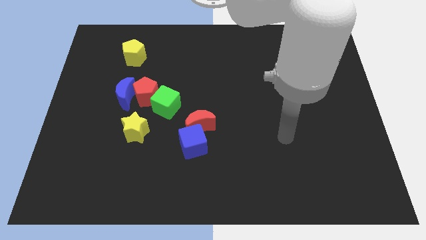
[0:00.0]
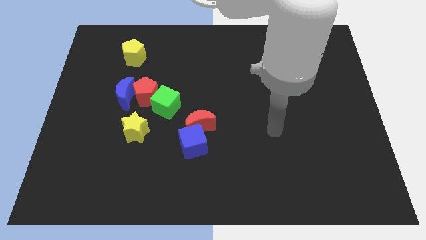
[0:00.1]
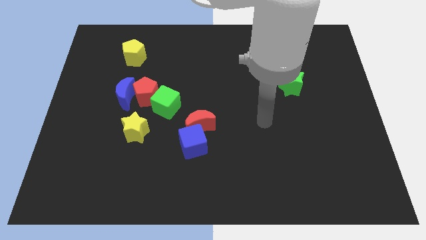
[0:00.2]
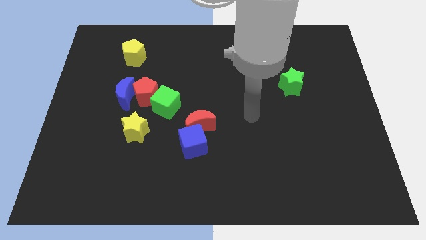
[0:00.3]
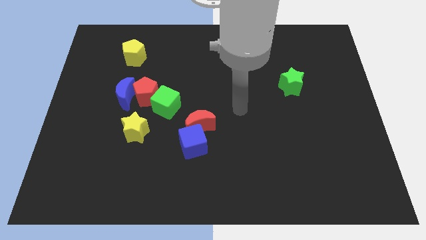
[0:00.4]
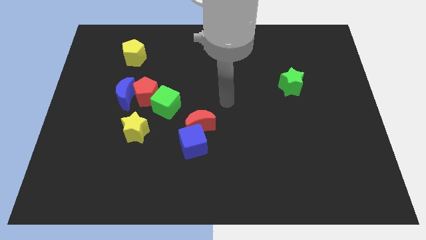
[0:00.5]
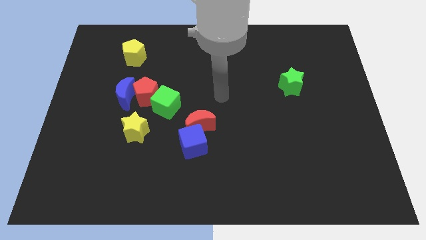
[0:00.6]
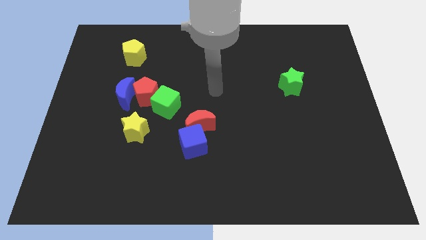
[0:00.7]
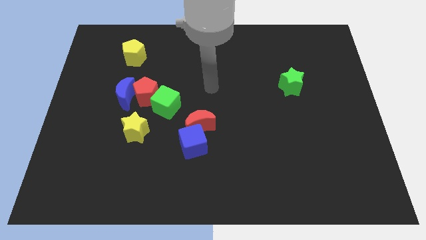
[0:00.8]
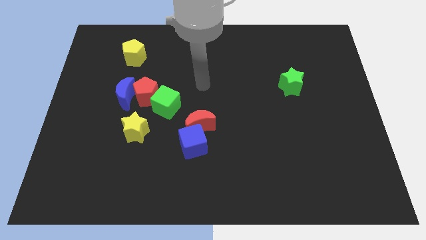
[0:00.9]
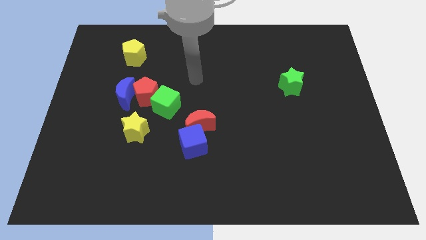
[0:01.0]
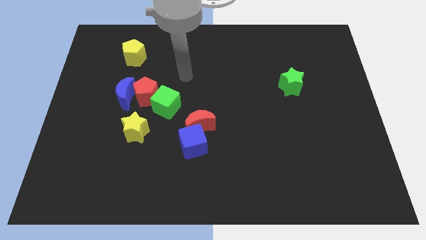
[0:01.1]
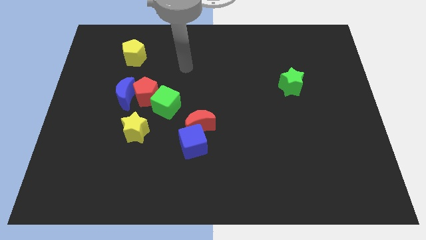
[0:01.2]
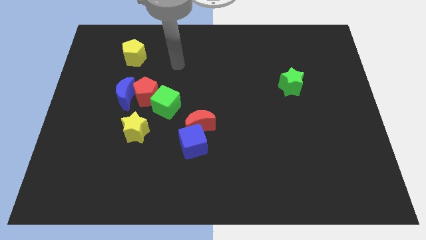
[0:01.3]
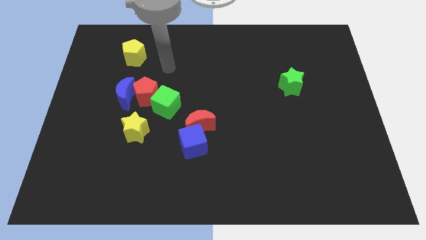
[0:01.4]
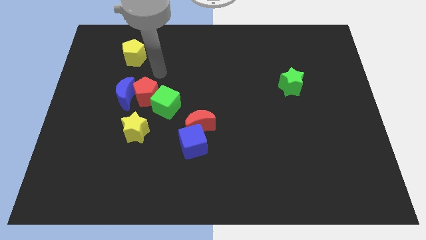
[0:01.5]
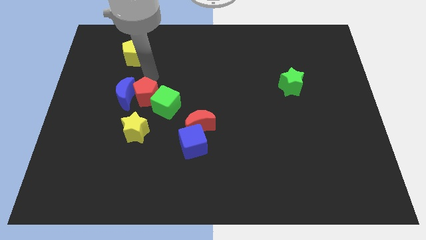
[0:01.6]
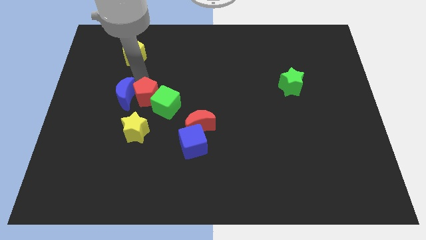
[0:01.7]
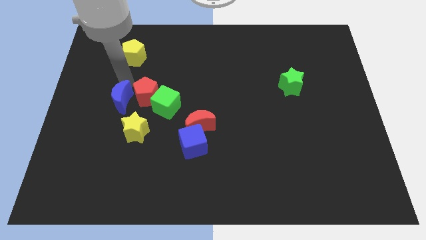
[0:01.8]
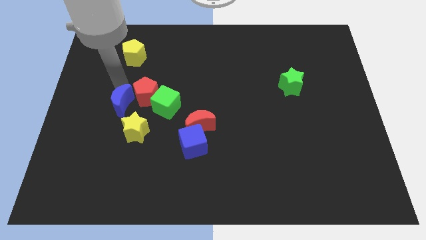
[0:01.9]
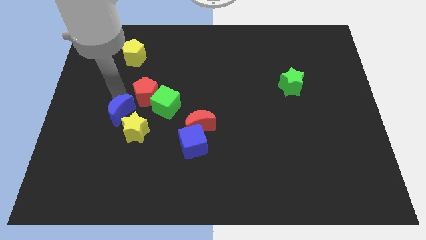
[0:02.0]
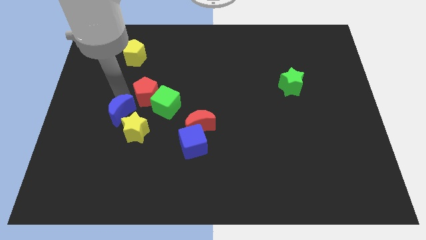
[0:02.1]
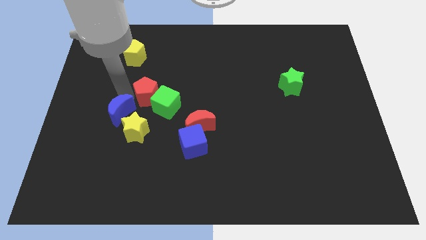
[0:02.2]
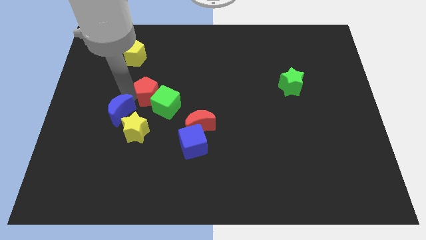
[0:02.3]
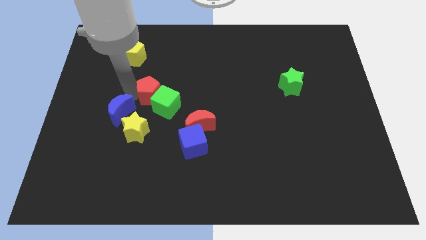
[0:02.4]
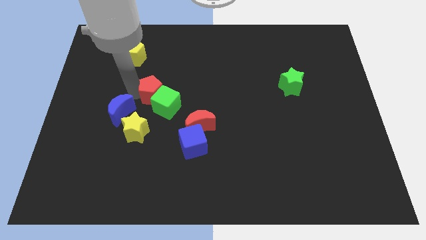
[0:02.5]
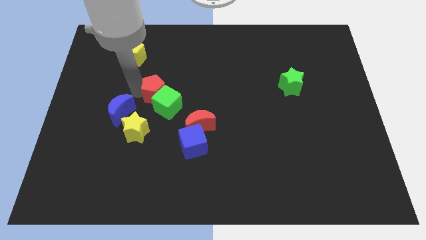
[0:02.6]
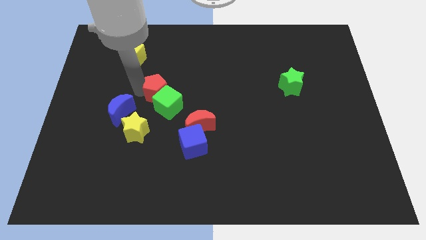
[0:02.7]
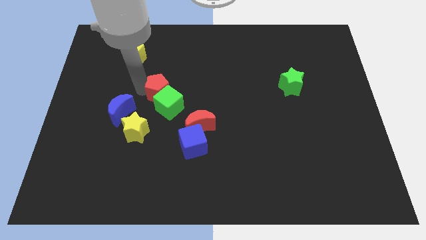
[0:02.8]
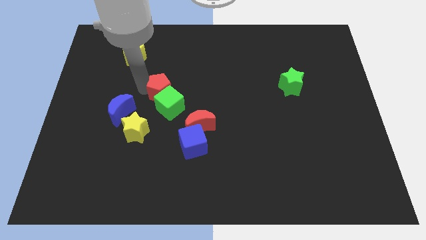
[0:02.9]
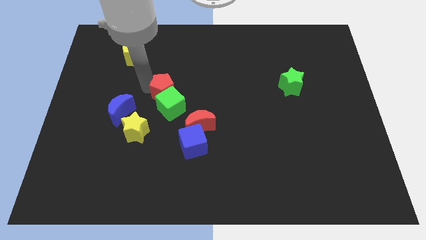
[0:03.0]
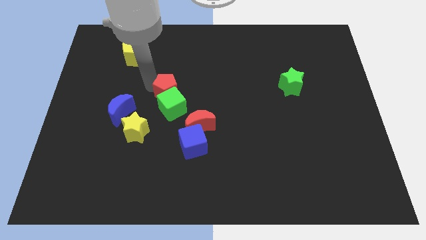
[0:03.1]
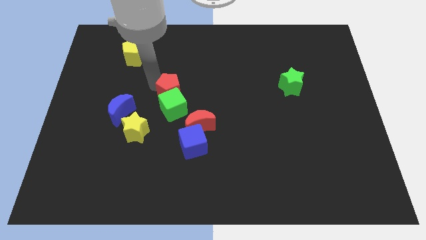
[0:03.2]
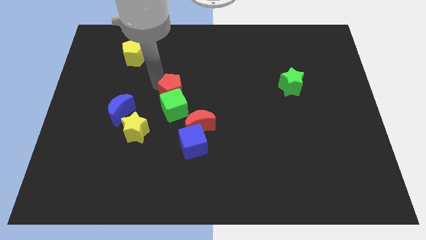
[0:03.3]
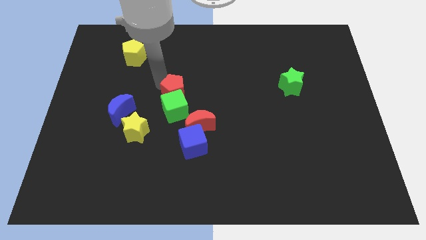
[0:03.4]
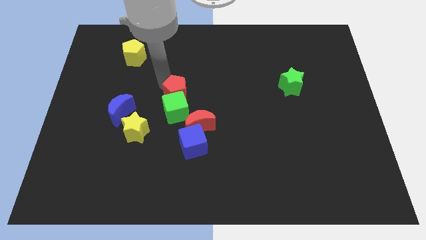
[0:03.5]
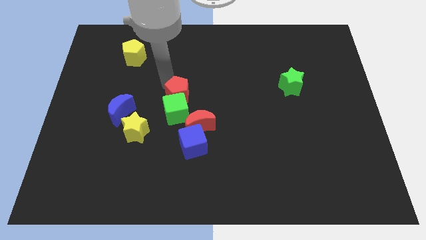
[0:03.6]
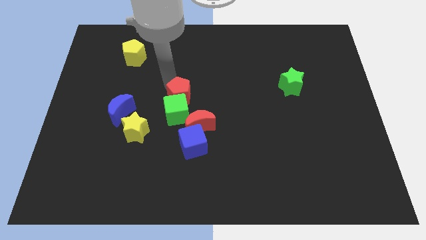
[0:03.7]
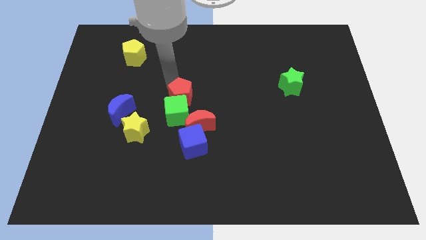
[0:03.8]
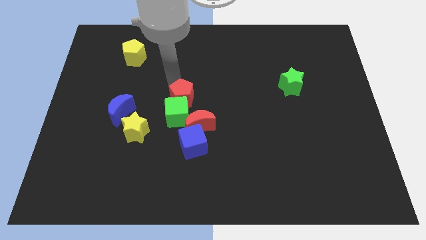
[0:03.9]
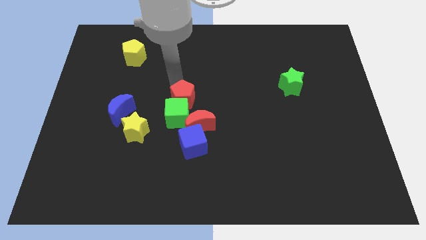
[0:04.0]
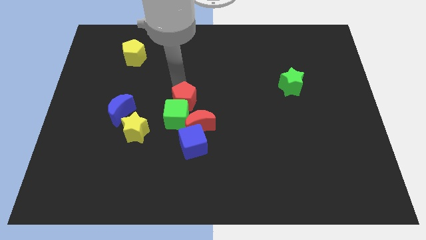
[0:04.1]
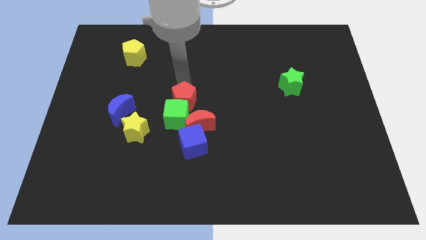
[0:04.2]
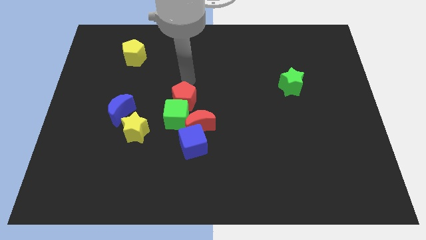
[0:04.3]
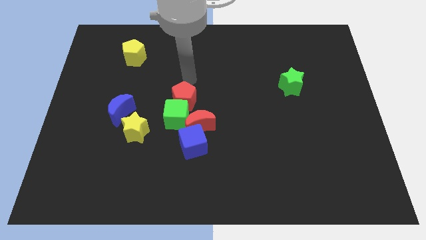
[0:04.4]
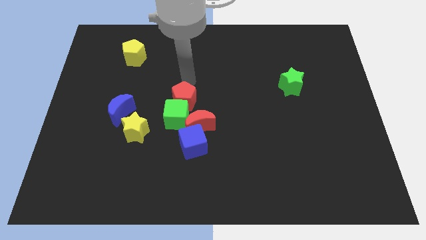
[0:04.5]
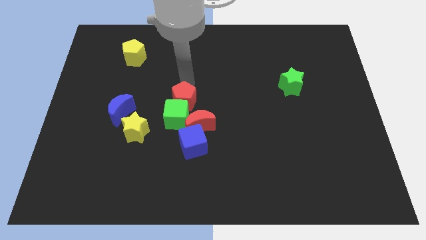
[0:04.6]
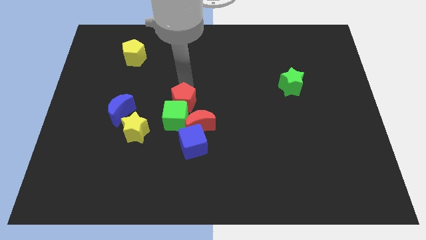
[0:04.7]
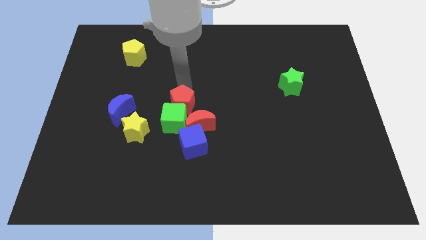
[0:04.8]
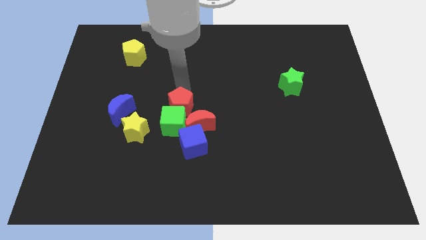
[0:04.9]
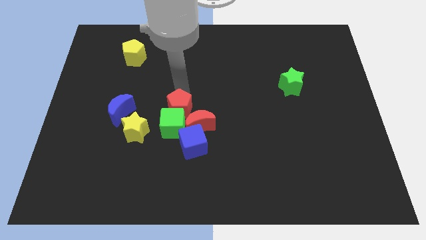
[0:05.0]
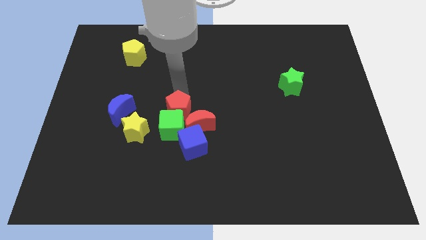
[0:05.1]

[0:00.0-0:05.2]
push the red pentagon just left of the red moon

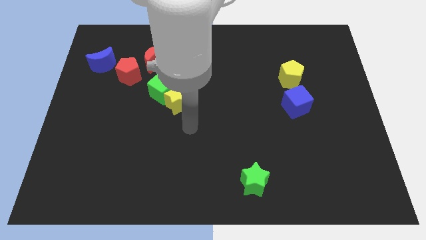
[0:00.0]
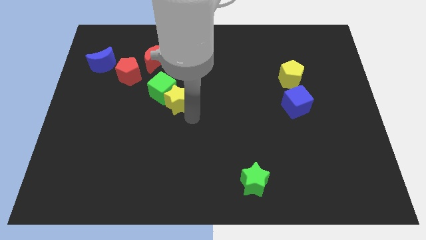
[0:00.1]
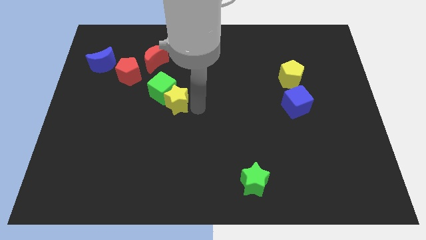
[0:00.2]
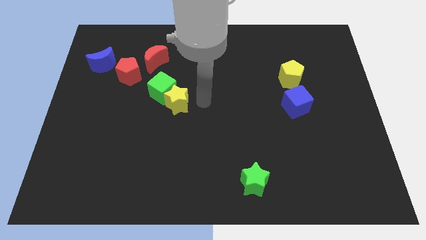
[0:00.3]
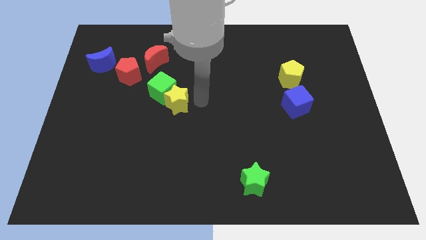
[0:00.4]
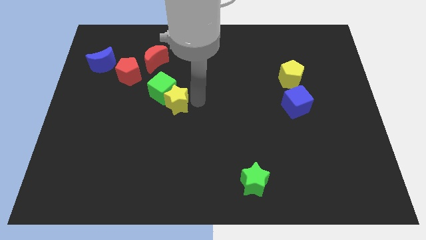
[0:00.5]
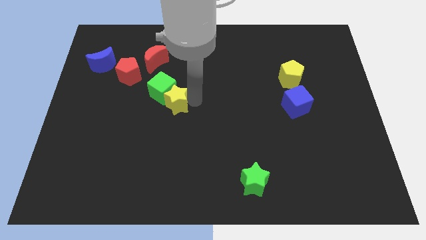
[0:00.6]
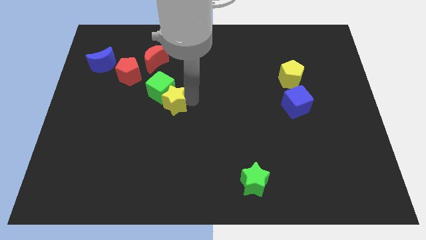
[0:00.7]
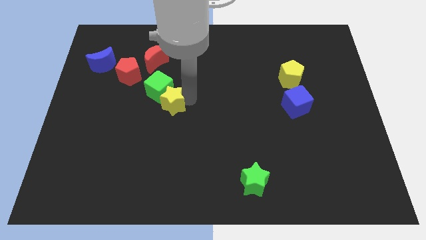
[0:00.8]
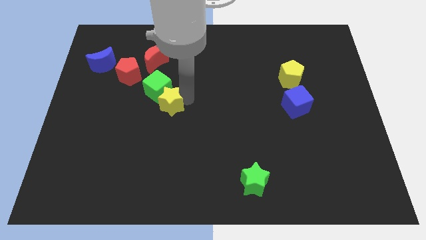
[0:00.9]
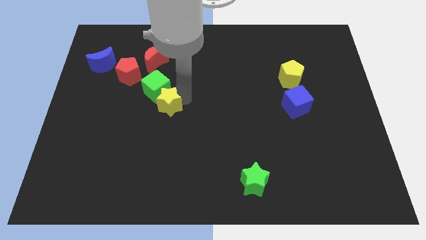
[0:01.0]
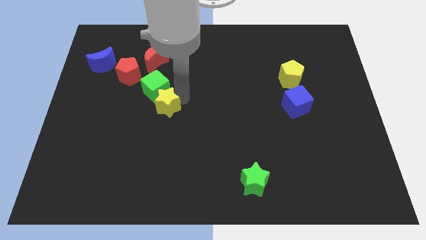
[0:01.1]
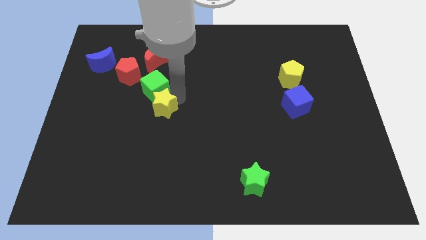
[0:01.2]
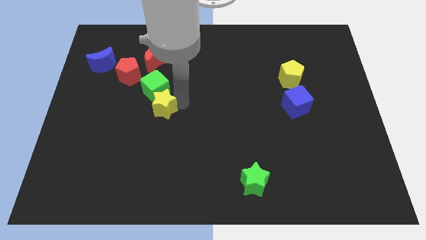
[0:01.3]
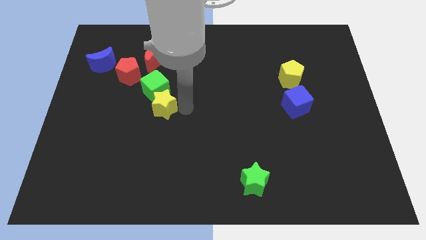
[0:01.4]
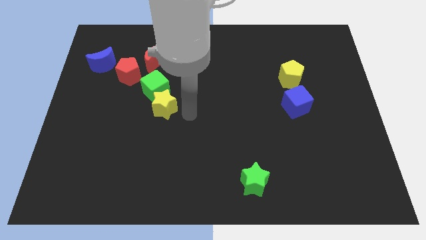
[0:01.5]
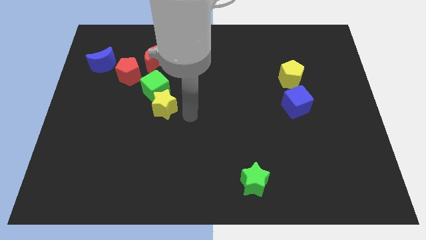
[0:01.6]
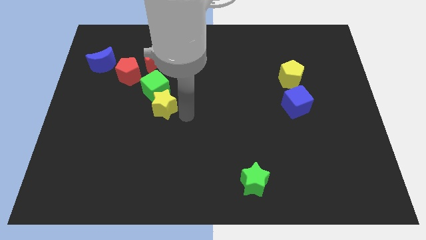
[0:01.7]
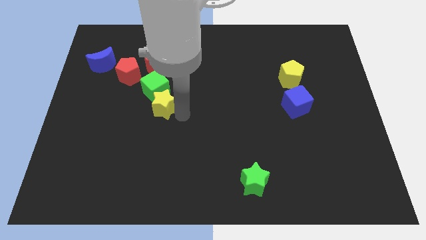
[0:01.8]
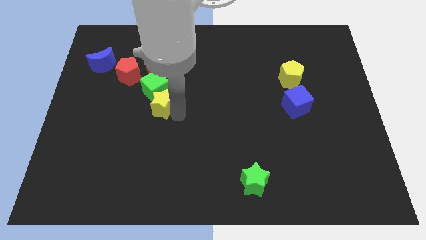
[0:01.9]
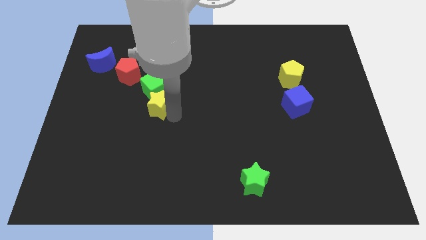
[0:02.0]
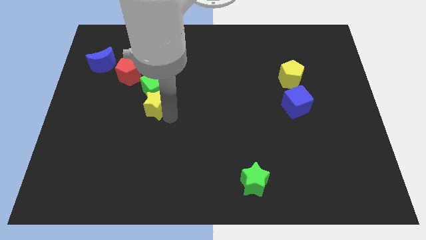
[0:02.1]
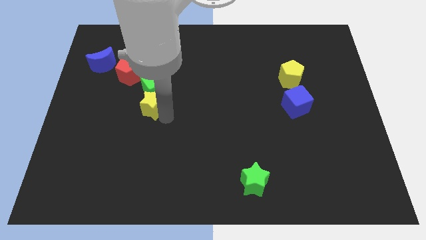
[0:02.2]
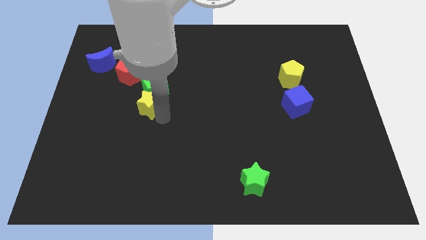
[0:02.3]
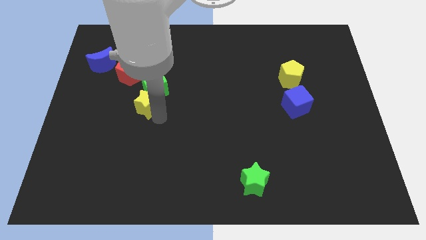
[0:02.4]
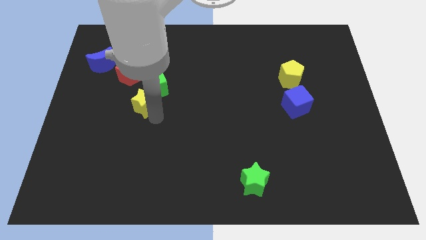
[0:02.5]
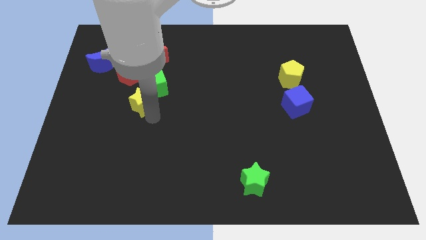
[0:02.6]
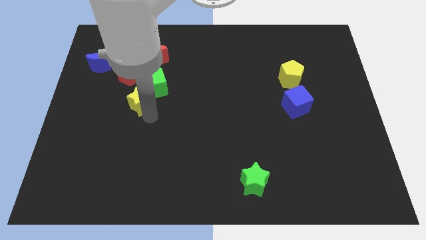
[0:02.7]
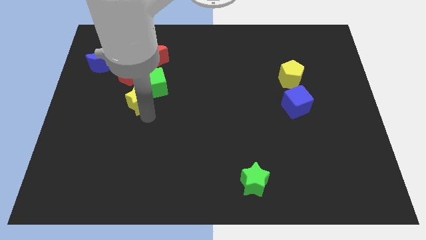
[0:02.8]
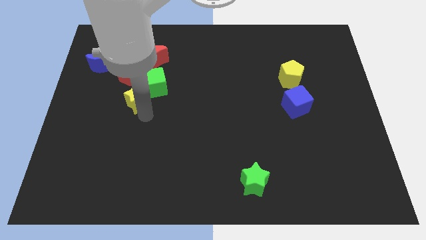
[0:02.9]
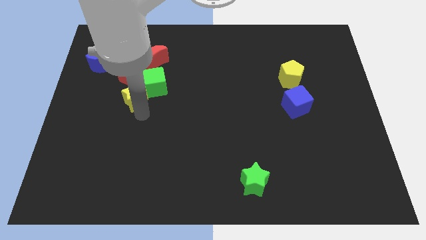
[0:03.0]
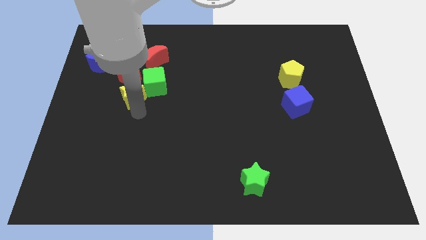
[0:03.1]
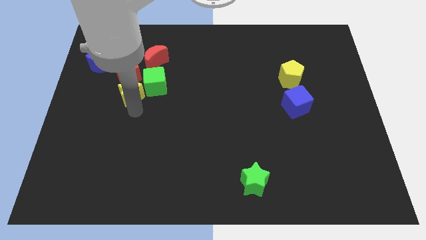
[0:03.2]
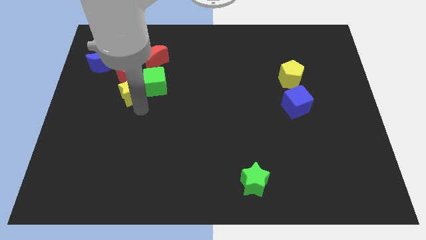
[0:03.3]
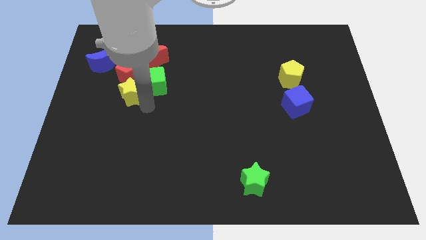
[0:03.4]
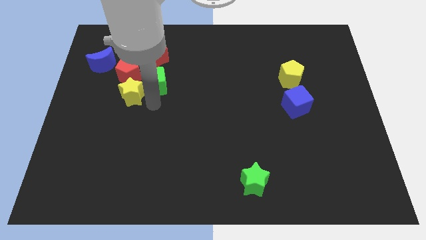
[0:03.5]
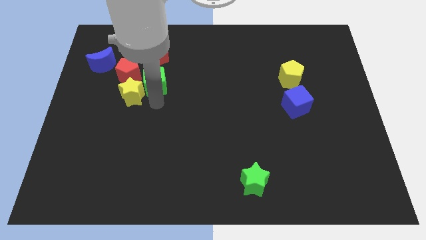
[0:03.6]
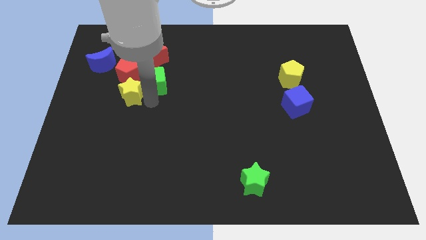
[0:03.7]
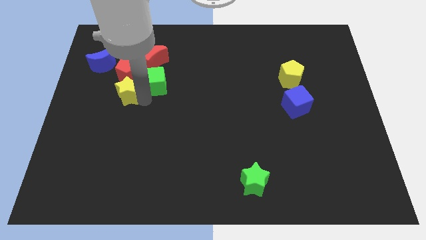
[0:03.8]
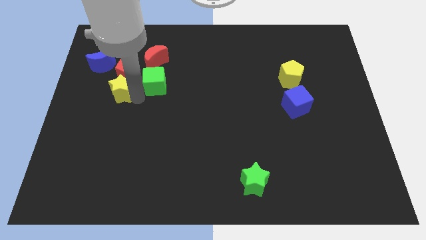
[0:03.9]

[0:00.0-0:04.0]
move the yellow star to the bottom left side of the red pentagon
